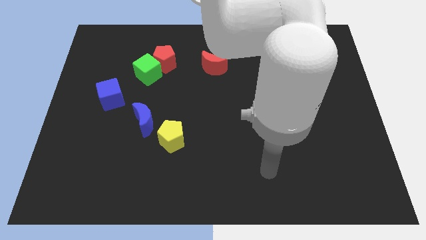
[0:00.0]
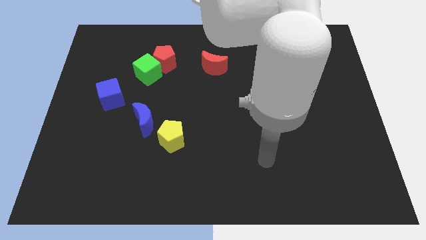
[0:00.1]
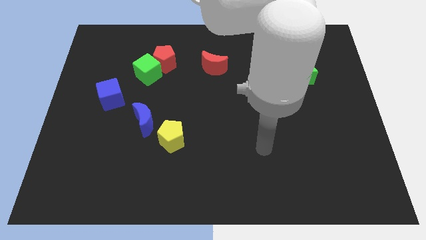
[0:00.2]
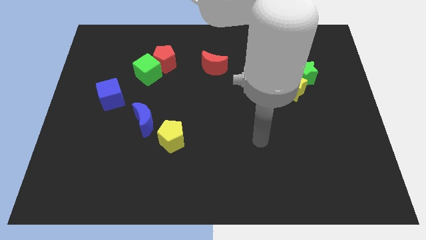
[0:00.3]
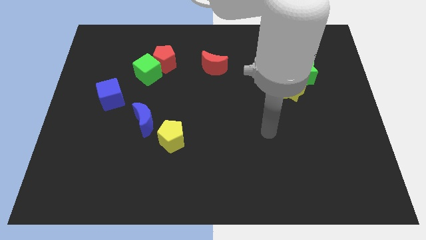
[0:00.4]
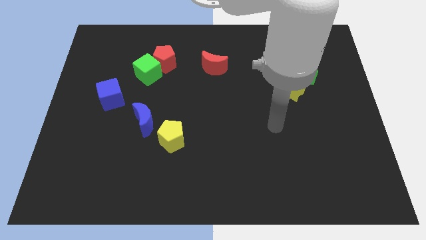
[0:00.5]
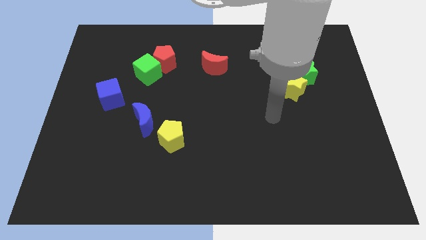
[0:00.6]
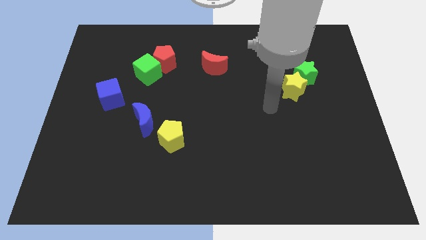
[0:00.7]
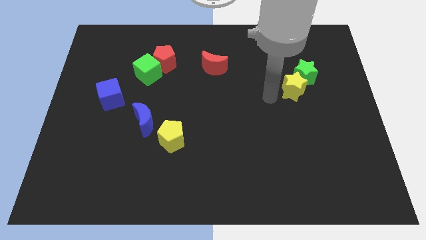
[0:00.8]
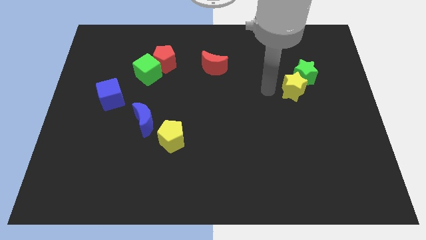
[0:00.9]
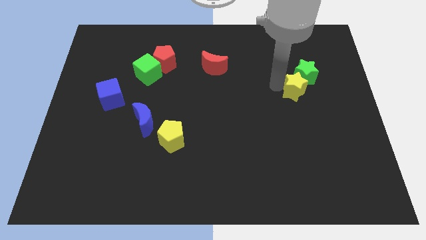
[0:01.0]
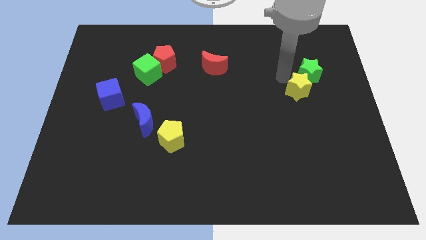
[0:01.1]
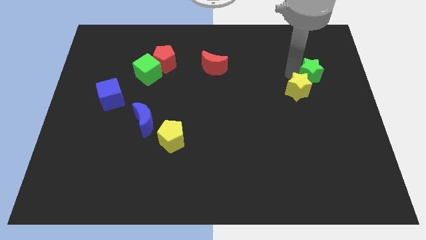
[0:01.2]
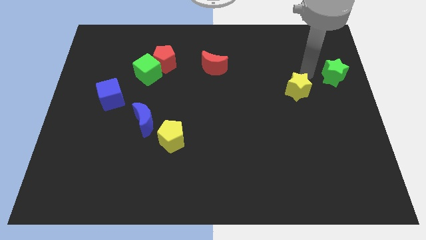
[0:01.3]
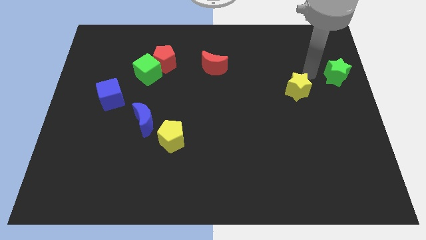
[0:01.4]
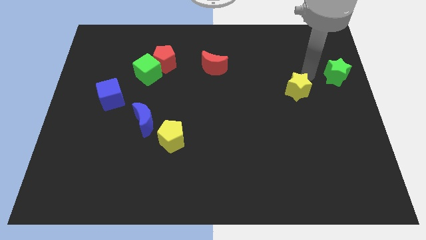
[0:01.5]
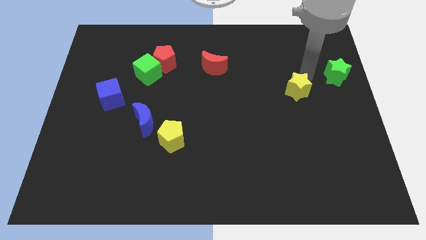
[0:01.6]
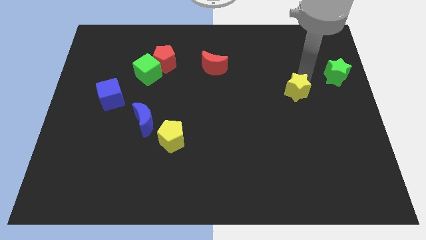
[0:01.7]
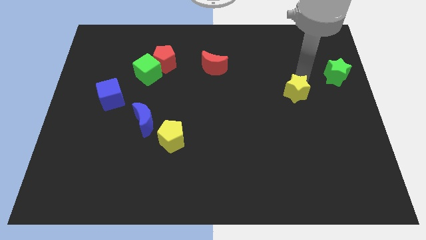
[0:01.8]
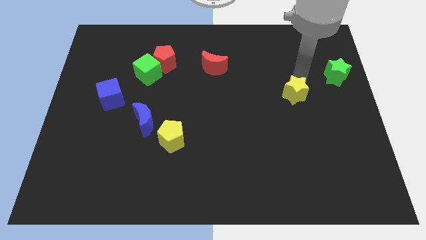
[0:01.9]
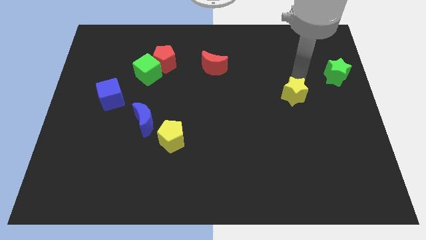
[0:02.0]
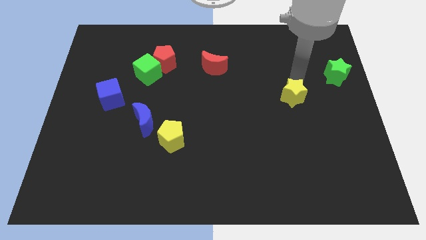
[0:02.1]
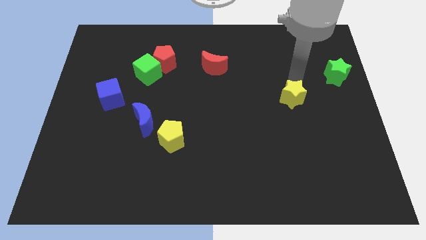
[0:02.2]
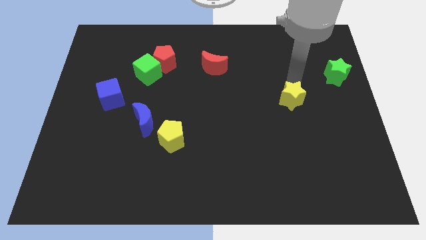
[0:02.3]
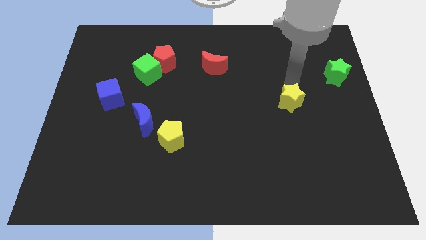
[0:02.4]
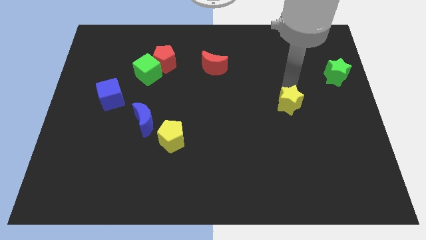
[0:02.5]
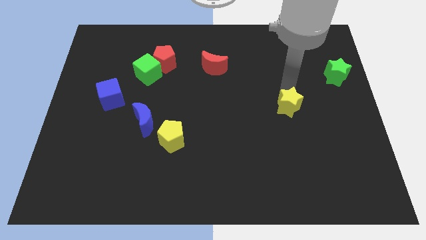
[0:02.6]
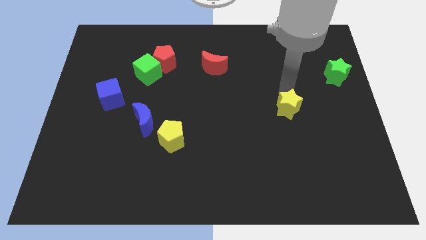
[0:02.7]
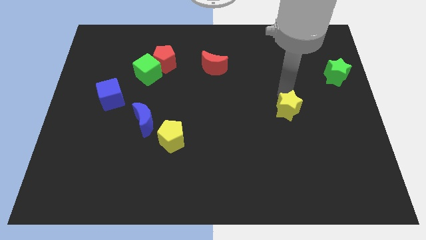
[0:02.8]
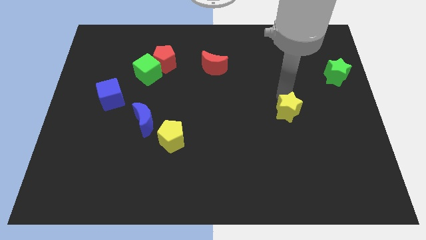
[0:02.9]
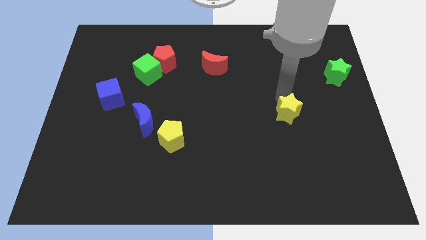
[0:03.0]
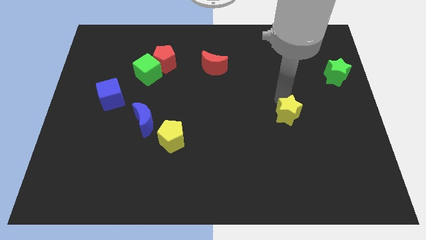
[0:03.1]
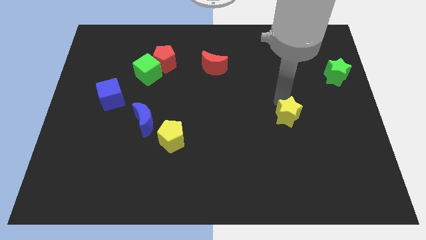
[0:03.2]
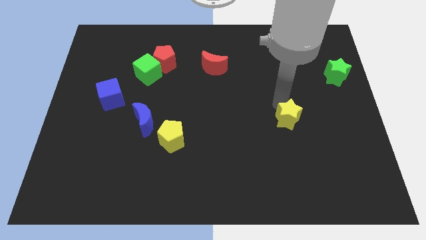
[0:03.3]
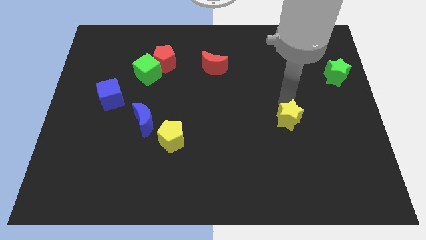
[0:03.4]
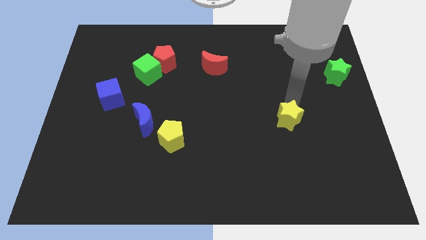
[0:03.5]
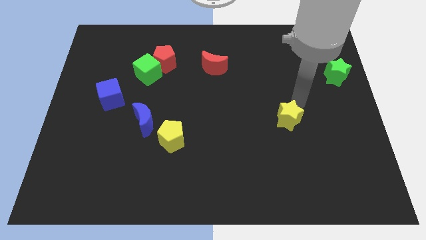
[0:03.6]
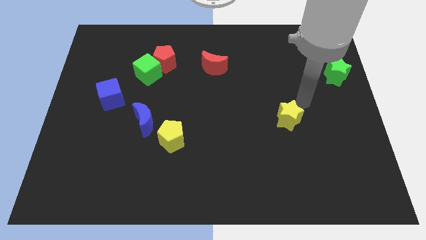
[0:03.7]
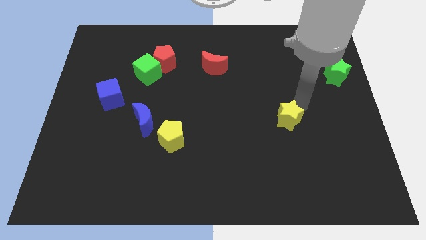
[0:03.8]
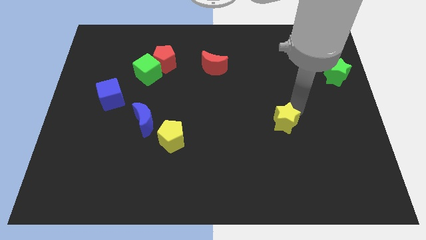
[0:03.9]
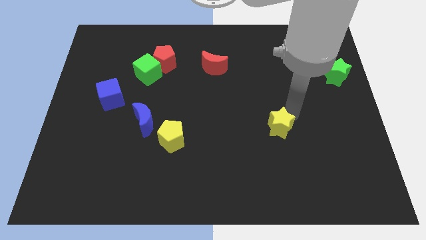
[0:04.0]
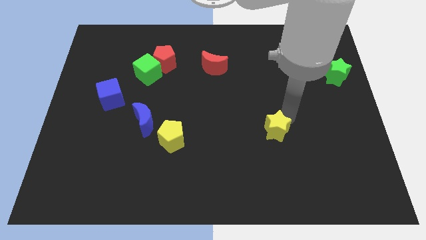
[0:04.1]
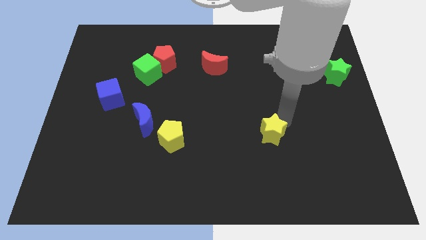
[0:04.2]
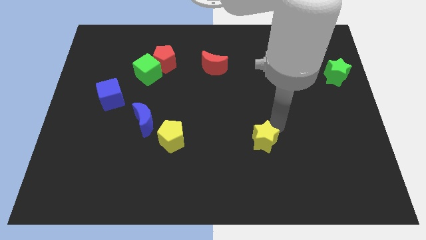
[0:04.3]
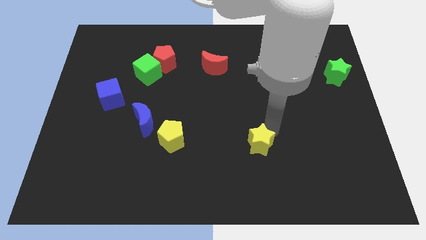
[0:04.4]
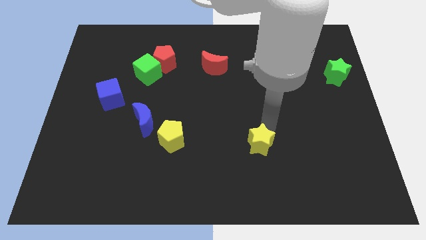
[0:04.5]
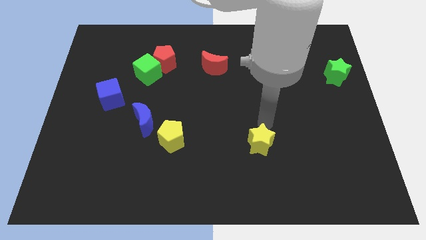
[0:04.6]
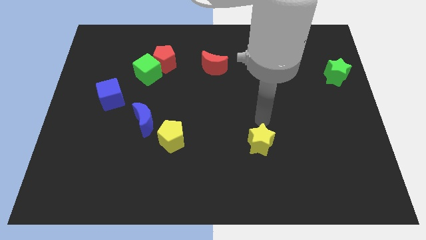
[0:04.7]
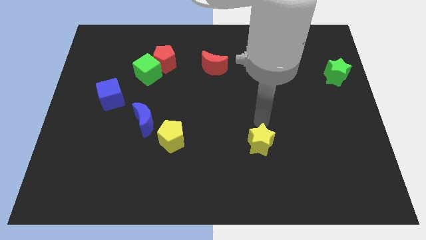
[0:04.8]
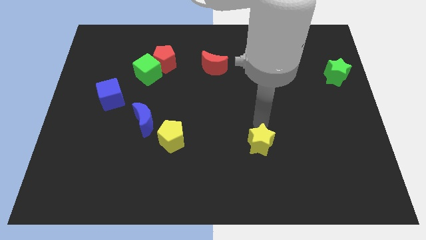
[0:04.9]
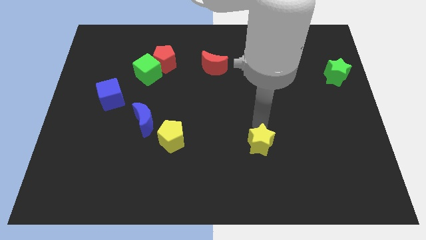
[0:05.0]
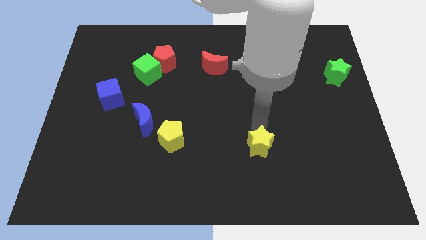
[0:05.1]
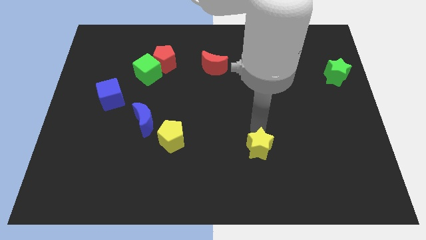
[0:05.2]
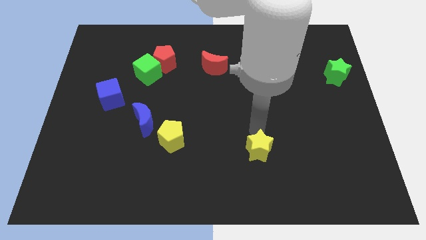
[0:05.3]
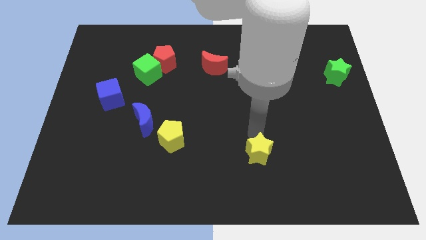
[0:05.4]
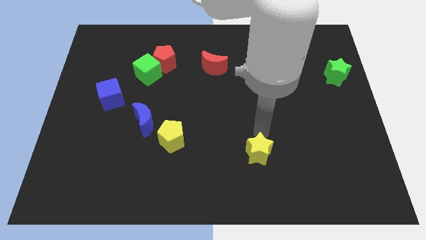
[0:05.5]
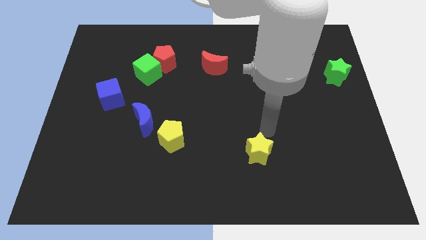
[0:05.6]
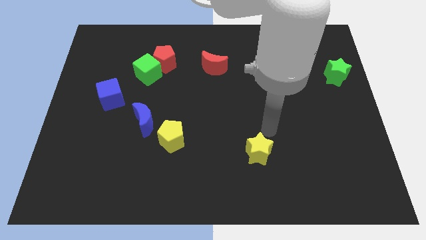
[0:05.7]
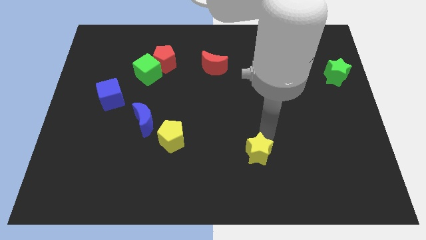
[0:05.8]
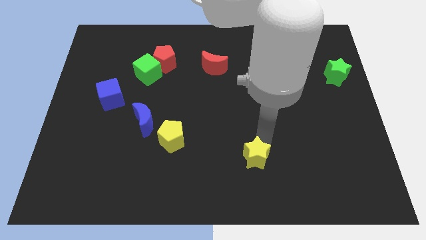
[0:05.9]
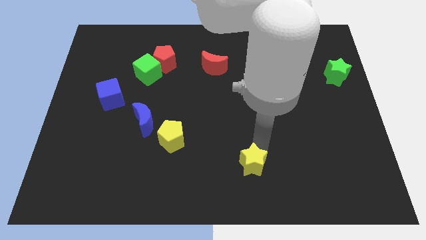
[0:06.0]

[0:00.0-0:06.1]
push the yellow star to the bottom side
